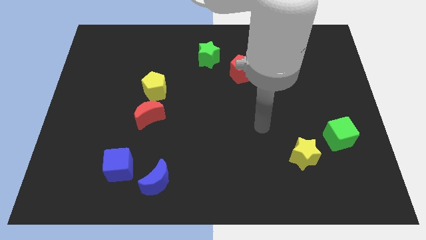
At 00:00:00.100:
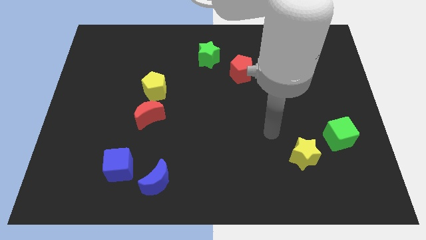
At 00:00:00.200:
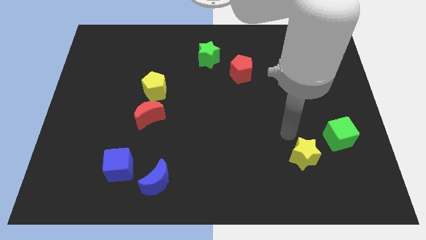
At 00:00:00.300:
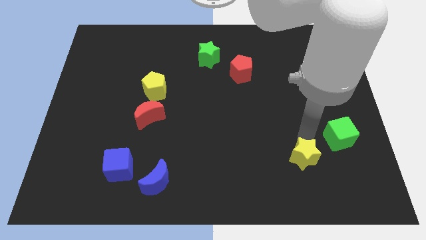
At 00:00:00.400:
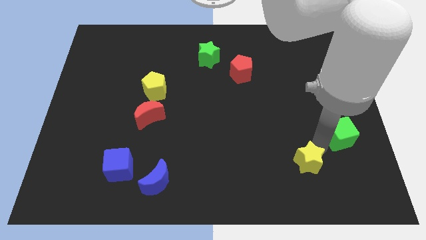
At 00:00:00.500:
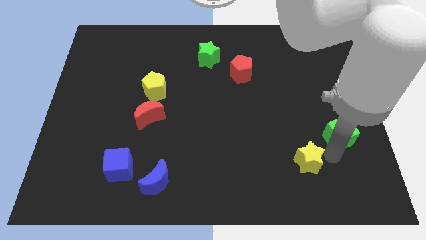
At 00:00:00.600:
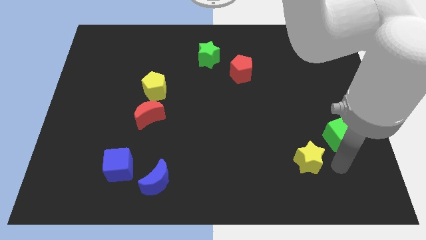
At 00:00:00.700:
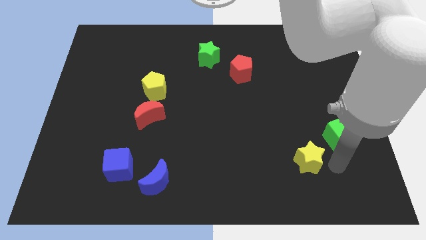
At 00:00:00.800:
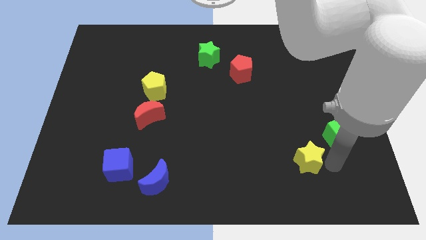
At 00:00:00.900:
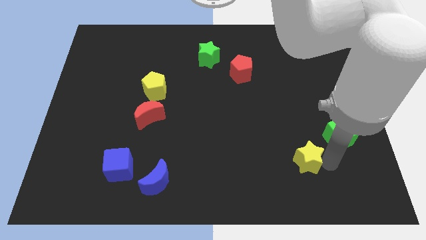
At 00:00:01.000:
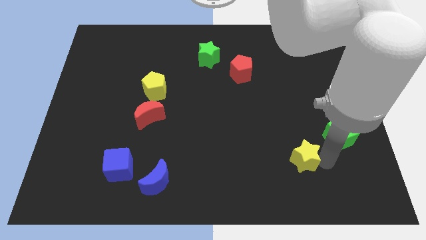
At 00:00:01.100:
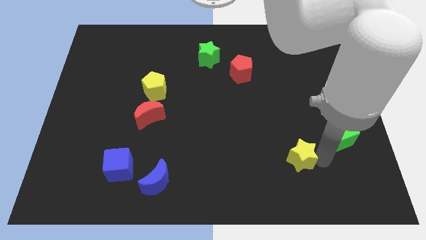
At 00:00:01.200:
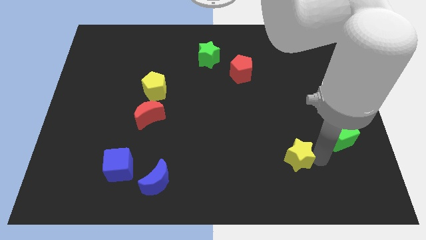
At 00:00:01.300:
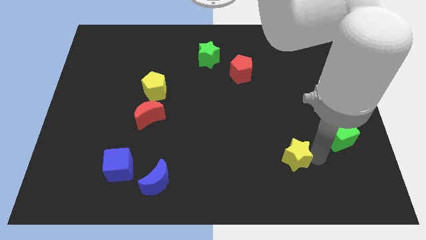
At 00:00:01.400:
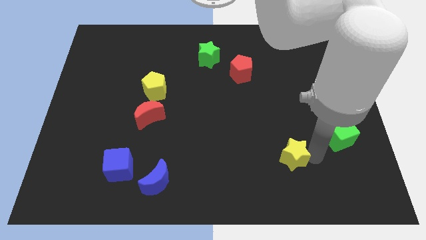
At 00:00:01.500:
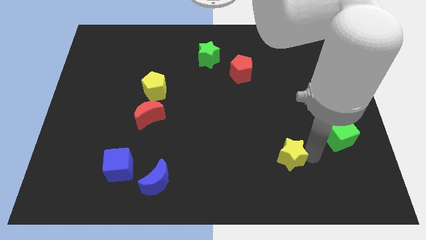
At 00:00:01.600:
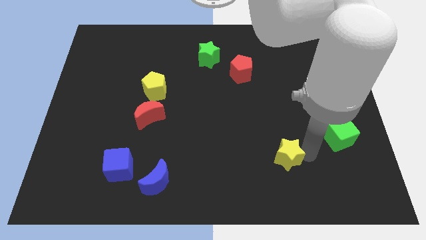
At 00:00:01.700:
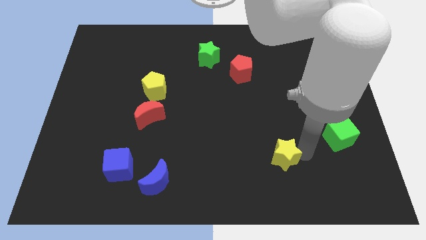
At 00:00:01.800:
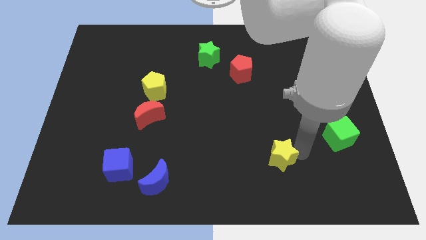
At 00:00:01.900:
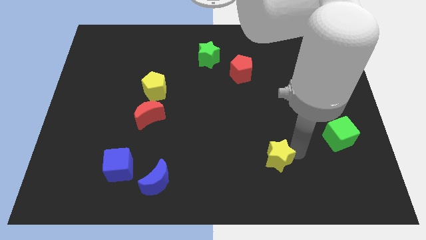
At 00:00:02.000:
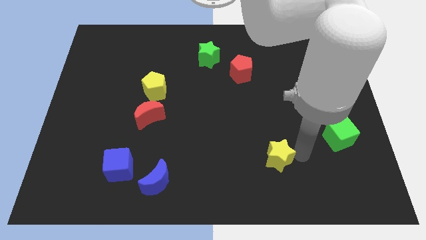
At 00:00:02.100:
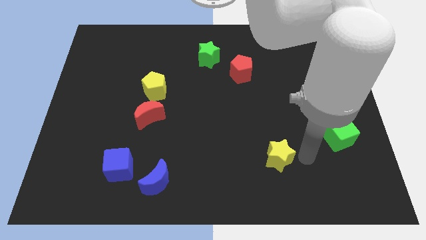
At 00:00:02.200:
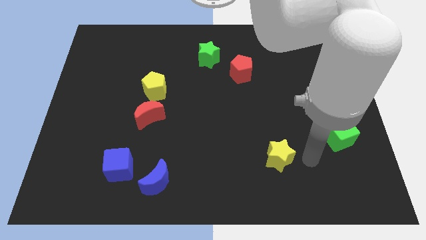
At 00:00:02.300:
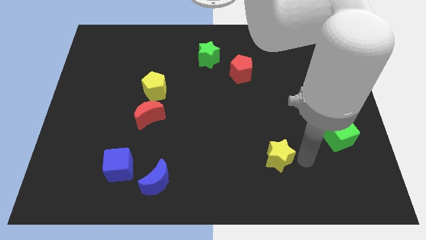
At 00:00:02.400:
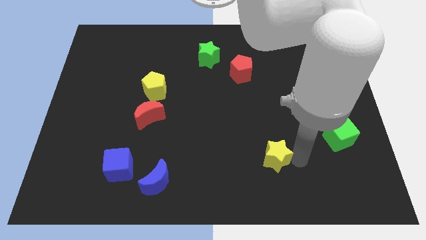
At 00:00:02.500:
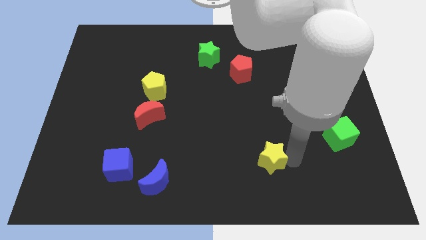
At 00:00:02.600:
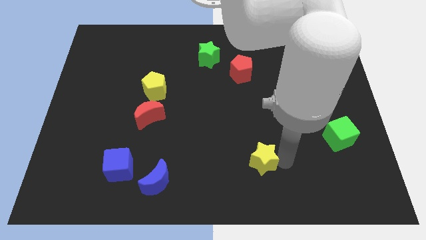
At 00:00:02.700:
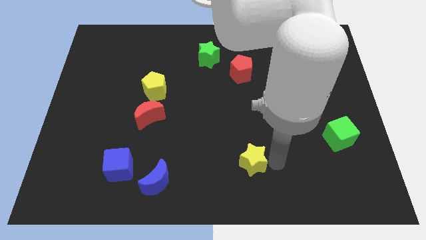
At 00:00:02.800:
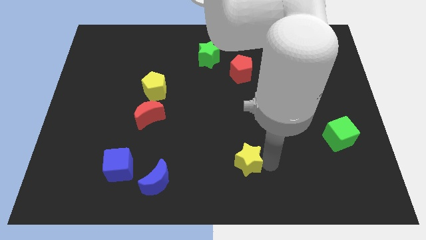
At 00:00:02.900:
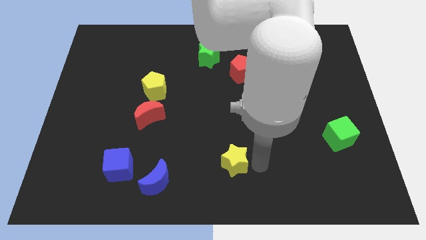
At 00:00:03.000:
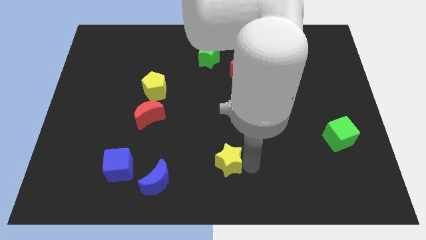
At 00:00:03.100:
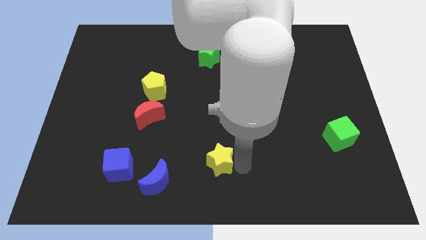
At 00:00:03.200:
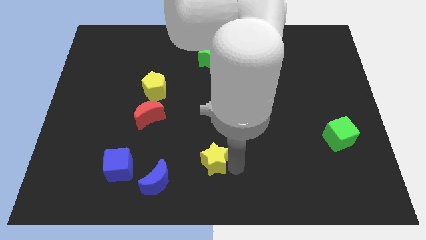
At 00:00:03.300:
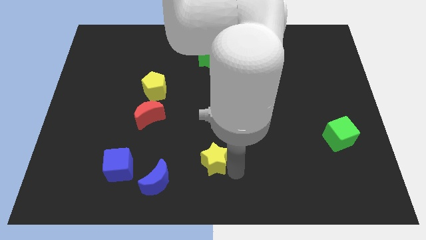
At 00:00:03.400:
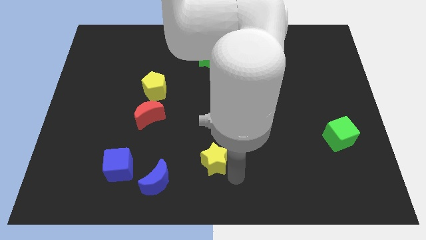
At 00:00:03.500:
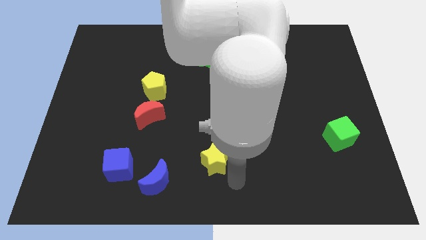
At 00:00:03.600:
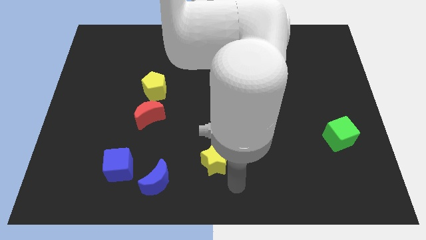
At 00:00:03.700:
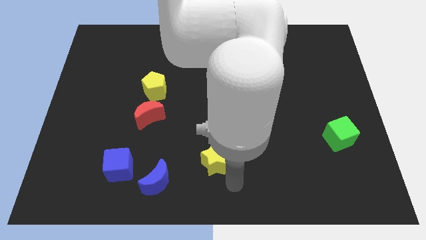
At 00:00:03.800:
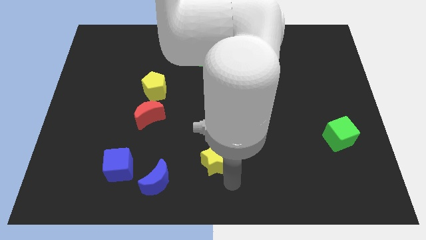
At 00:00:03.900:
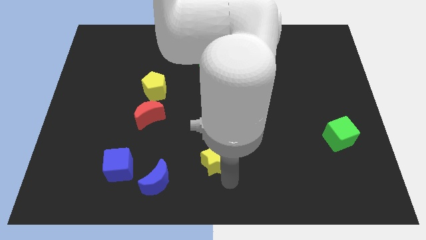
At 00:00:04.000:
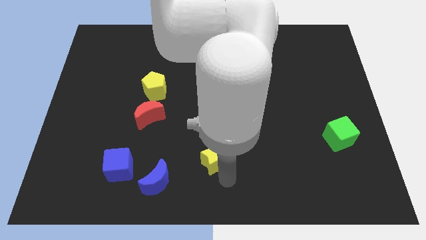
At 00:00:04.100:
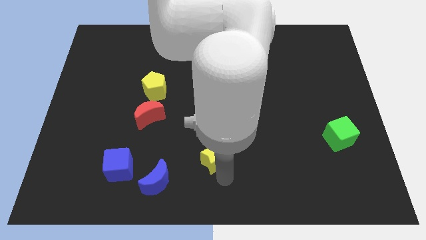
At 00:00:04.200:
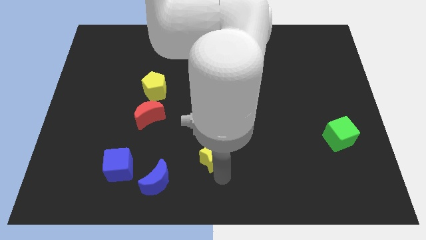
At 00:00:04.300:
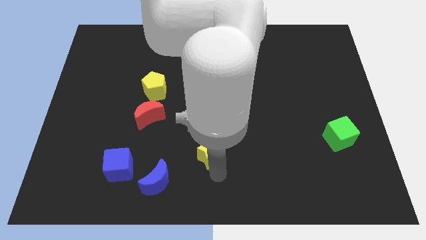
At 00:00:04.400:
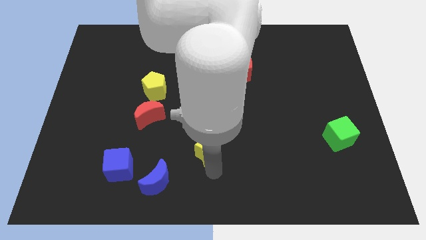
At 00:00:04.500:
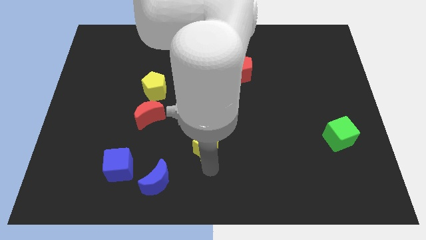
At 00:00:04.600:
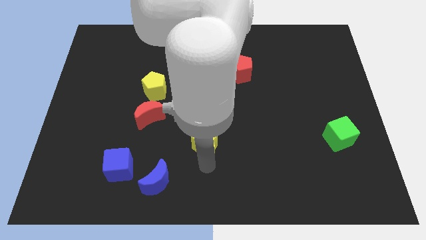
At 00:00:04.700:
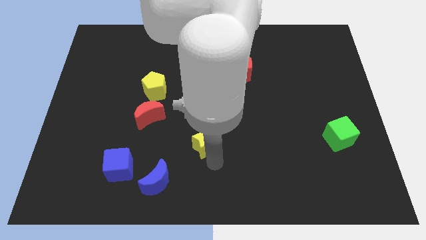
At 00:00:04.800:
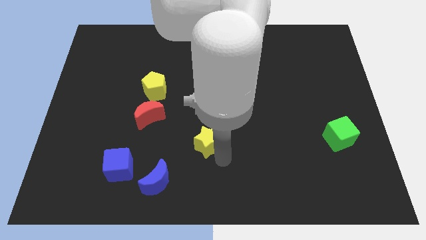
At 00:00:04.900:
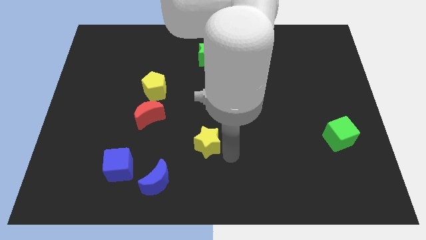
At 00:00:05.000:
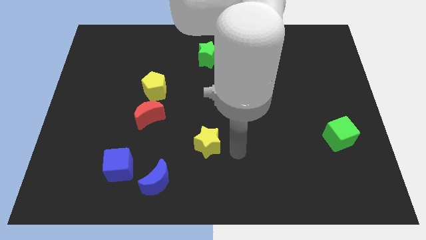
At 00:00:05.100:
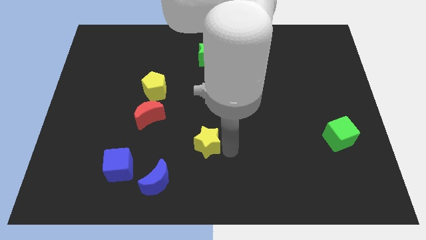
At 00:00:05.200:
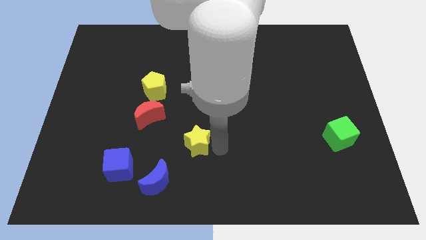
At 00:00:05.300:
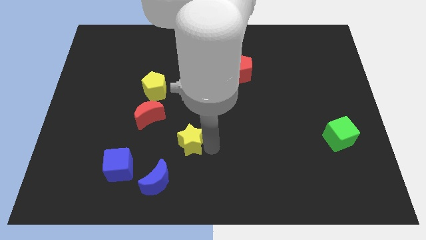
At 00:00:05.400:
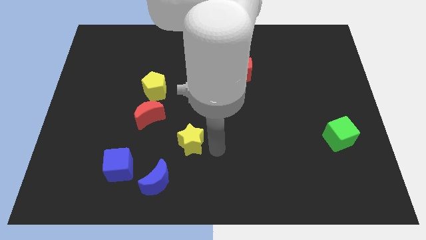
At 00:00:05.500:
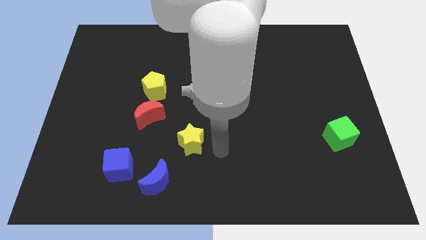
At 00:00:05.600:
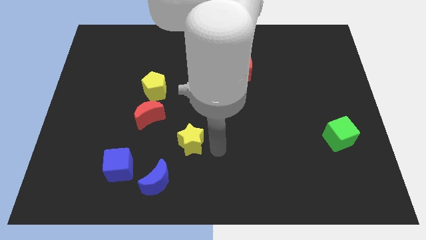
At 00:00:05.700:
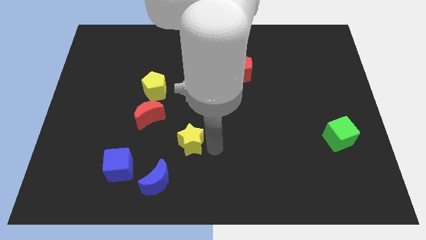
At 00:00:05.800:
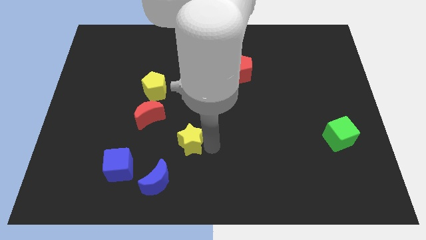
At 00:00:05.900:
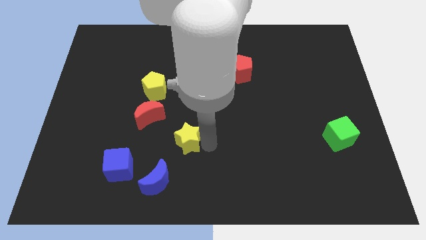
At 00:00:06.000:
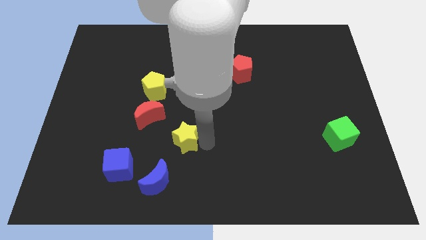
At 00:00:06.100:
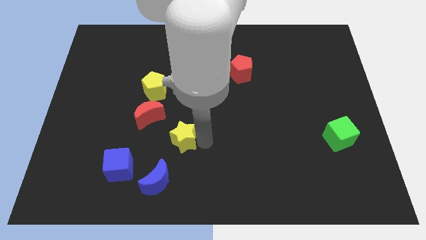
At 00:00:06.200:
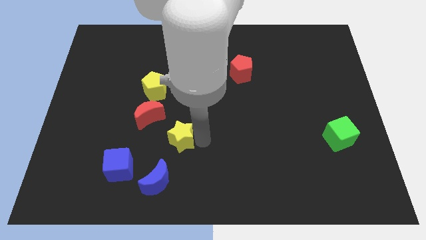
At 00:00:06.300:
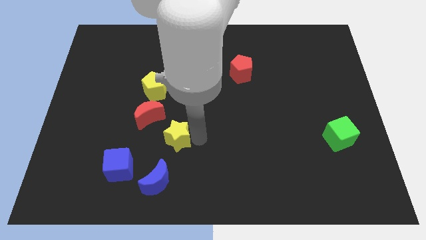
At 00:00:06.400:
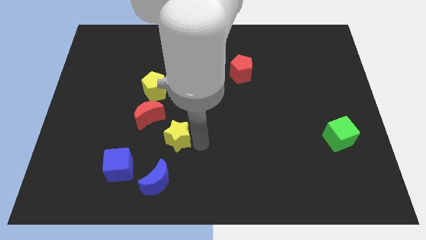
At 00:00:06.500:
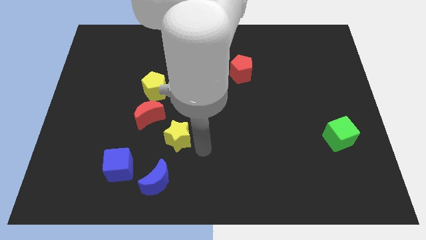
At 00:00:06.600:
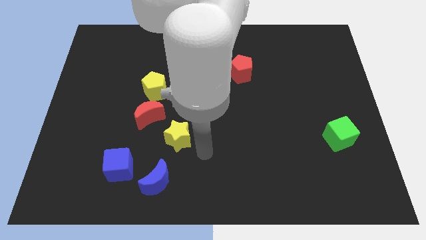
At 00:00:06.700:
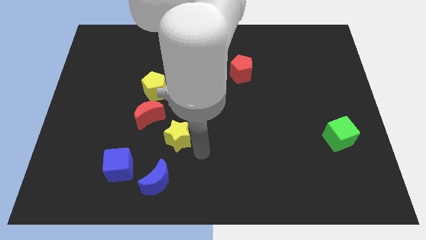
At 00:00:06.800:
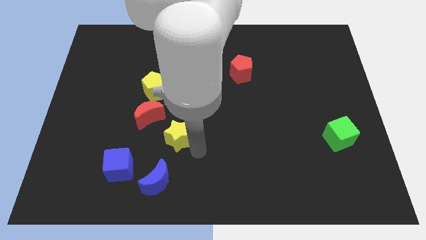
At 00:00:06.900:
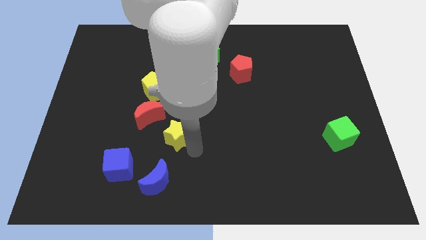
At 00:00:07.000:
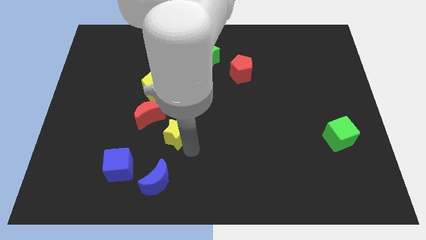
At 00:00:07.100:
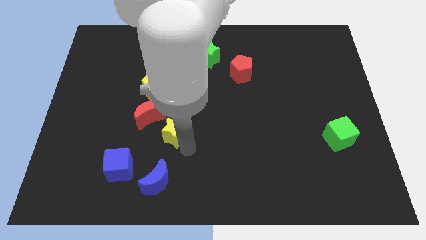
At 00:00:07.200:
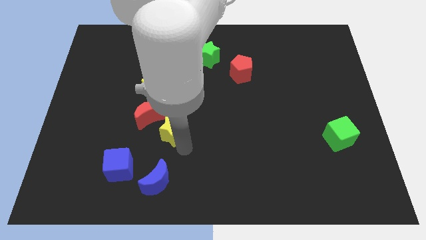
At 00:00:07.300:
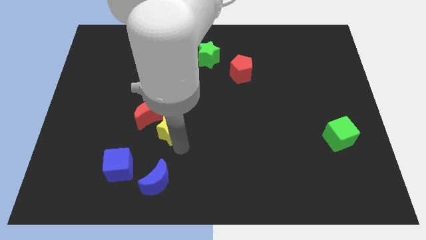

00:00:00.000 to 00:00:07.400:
slide the yellow star to the bottom of the yellow pentagon
